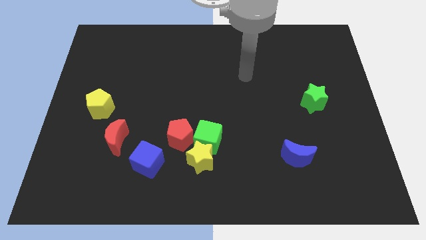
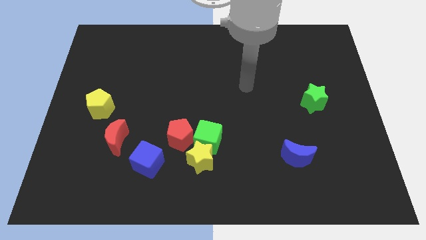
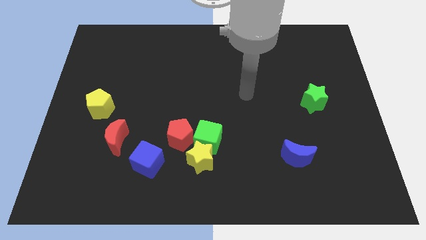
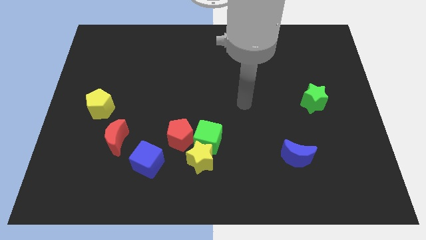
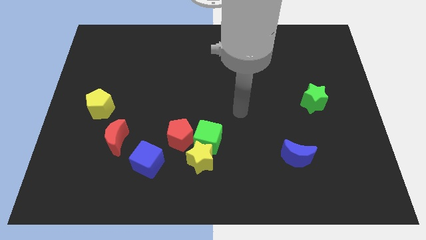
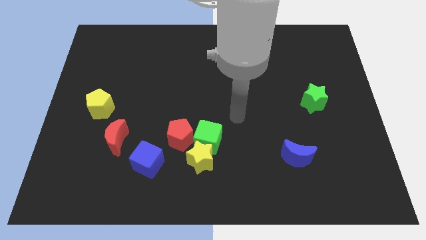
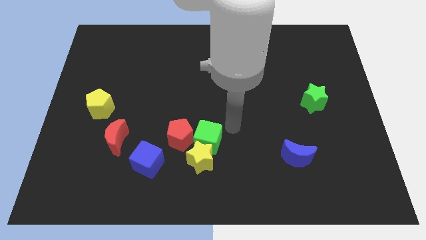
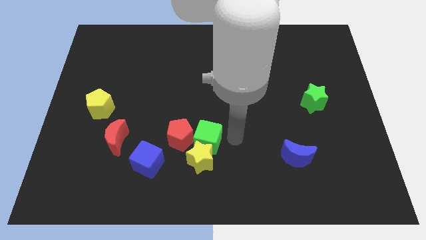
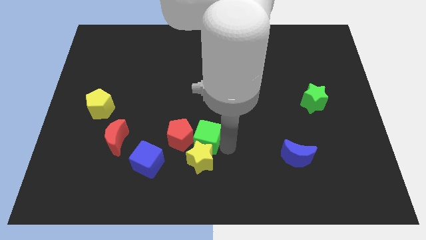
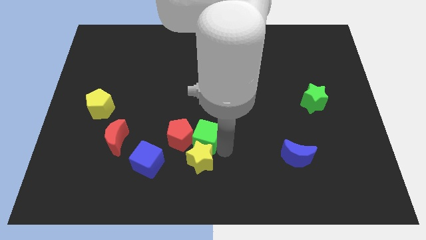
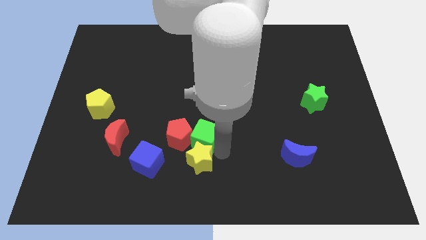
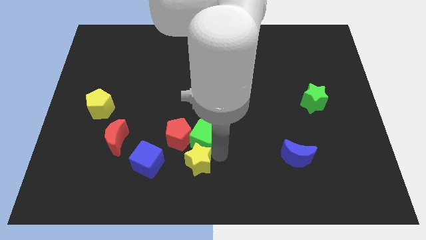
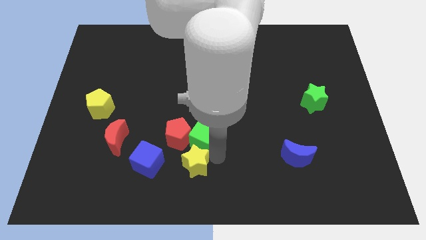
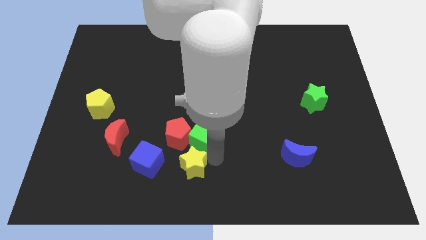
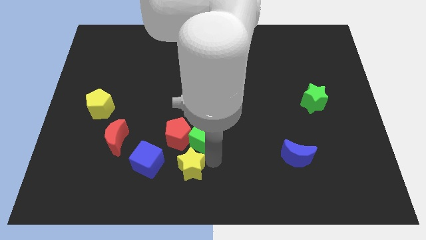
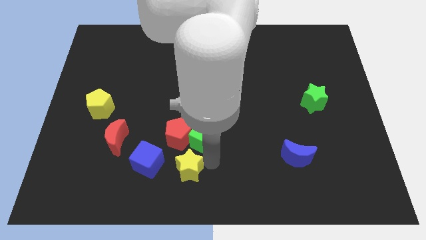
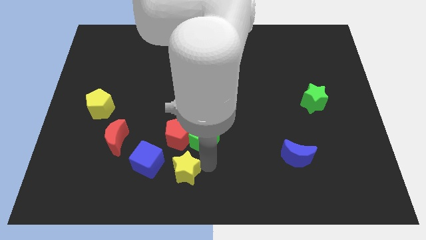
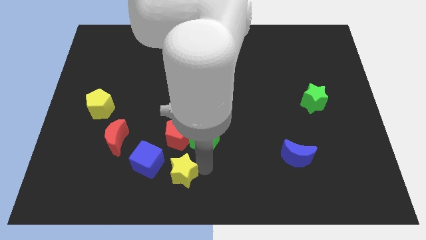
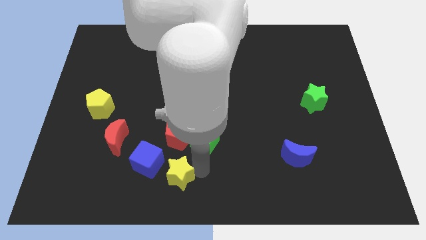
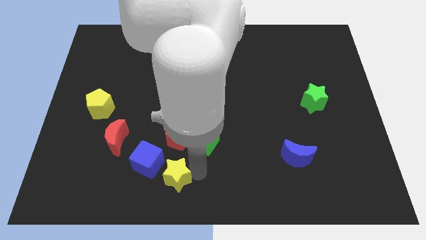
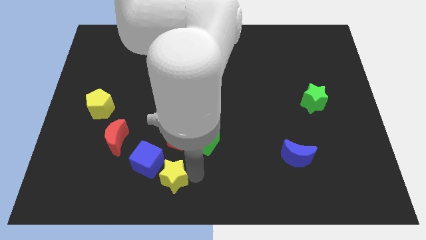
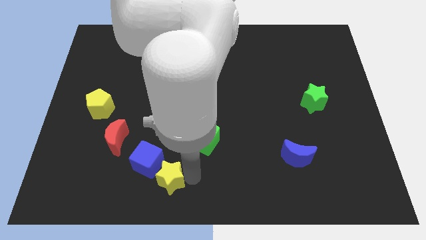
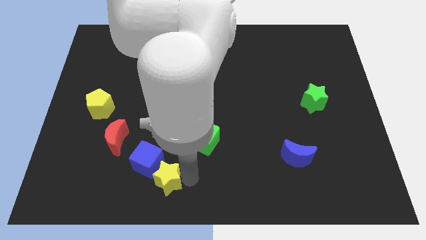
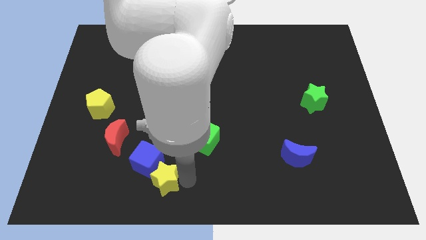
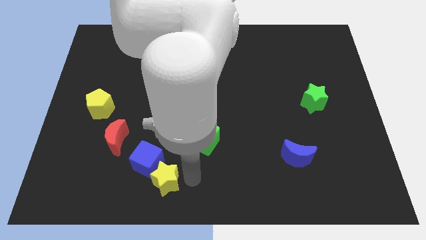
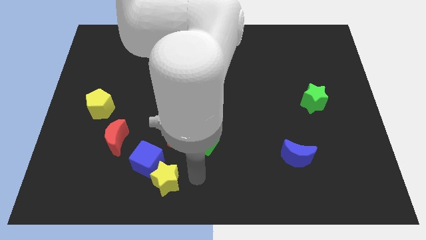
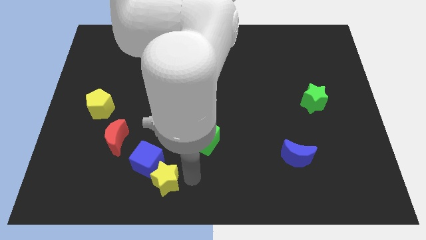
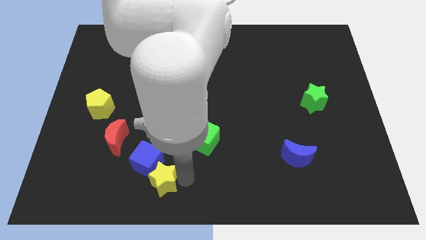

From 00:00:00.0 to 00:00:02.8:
push the yellow star a little bit left

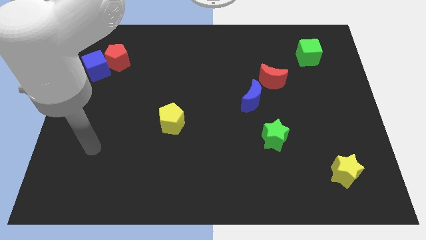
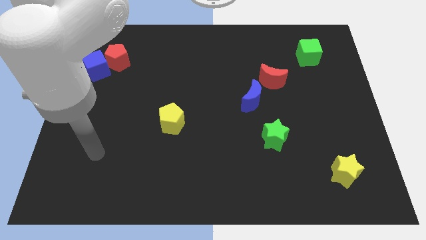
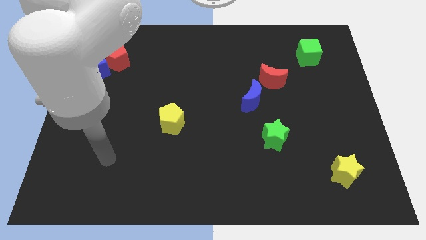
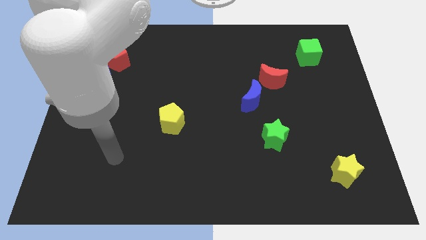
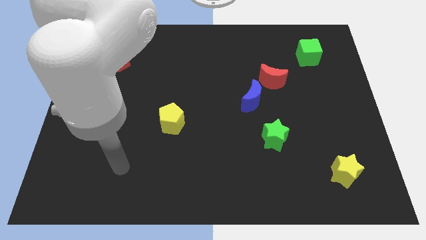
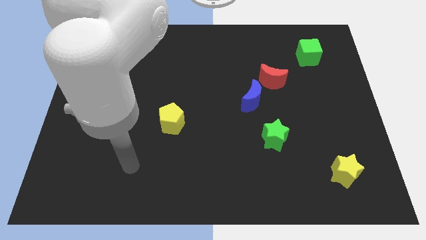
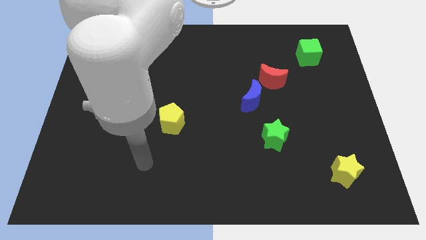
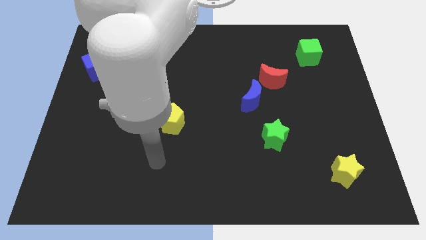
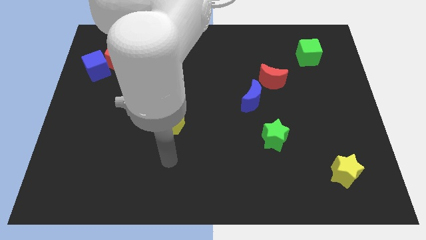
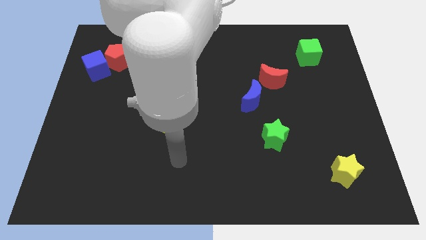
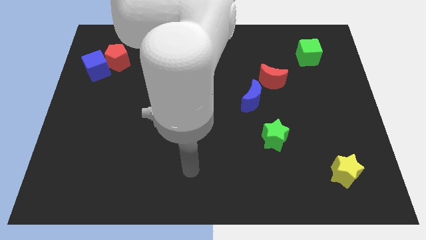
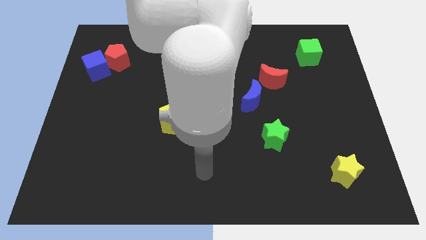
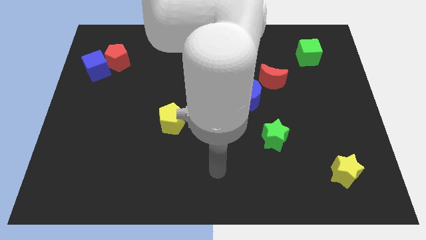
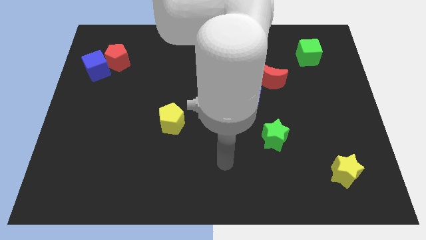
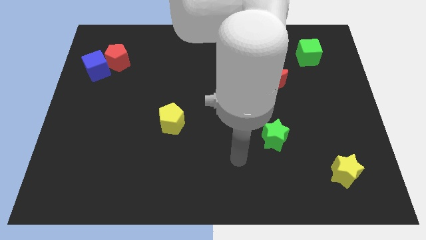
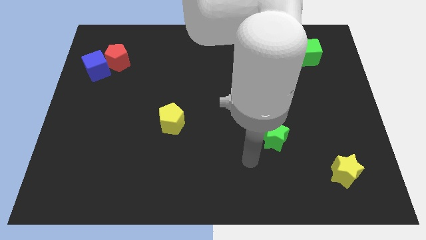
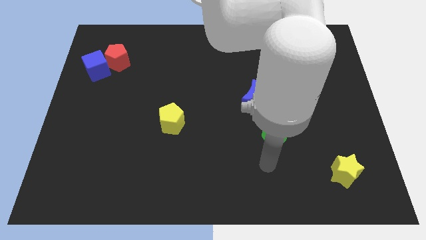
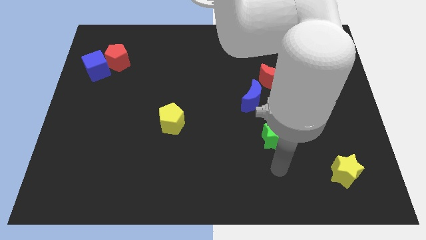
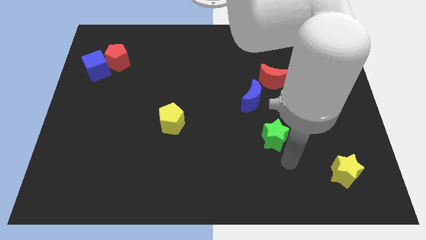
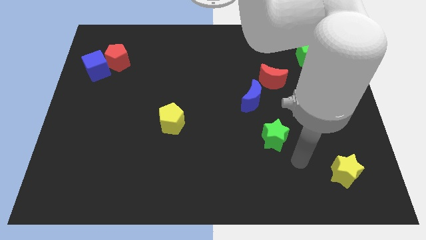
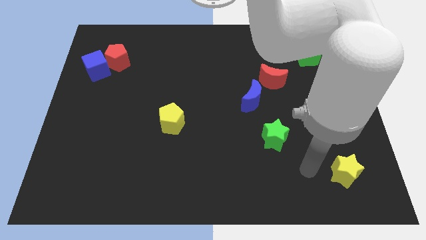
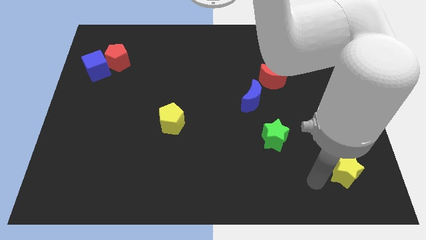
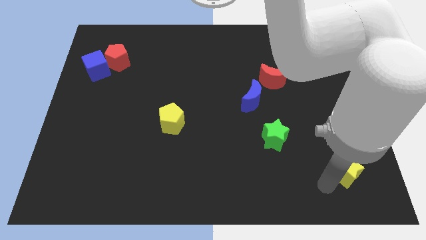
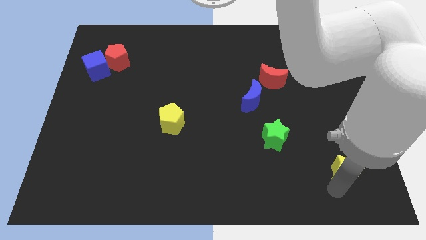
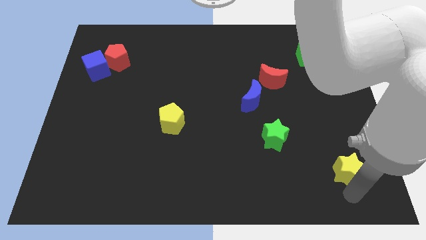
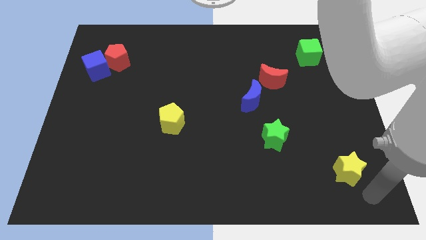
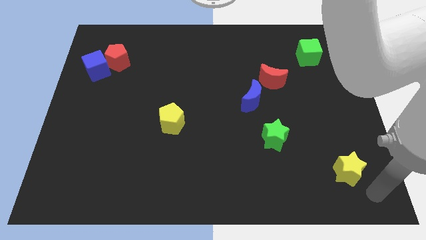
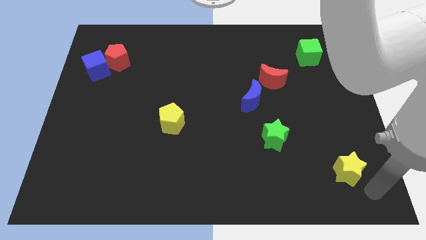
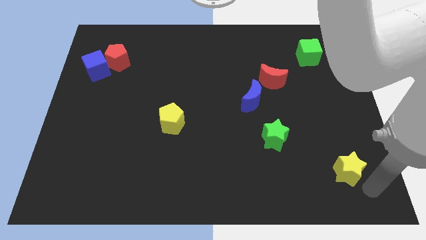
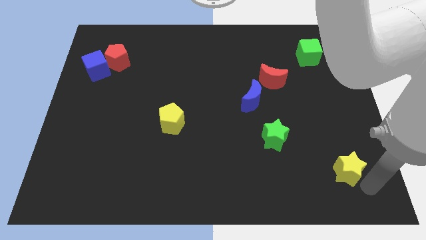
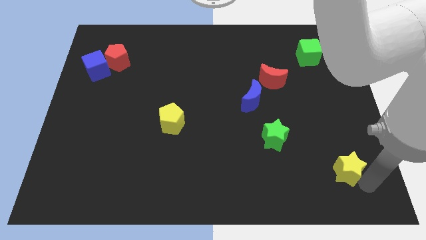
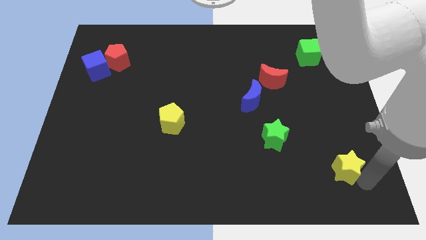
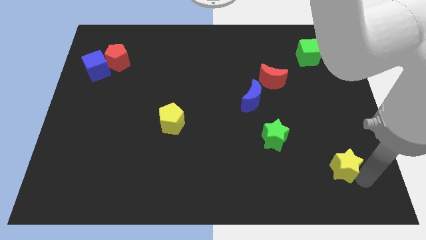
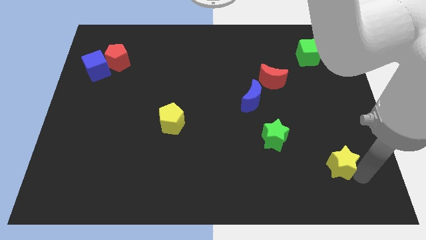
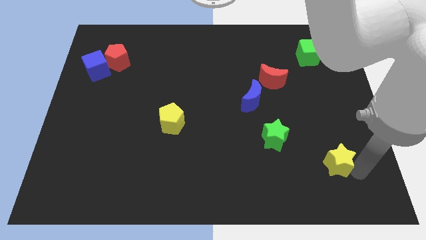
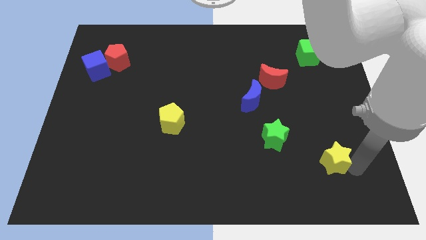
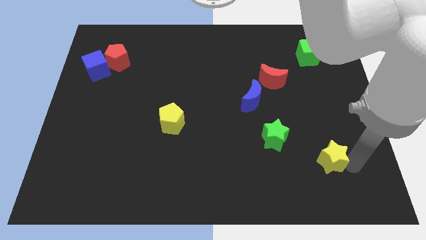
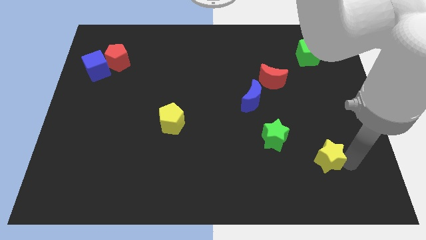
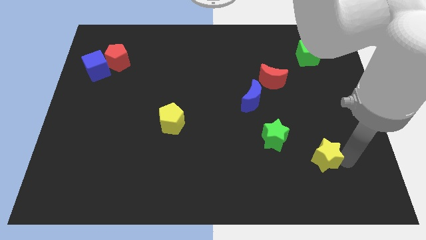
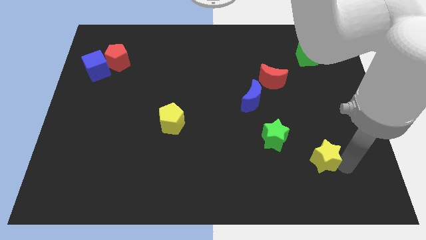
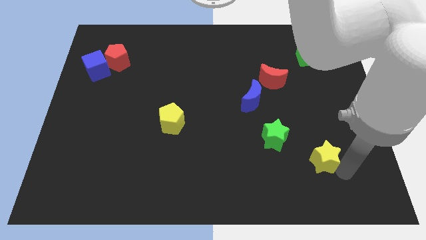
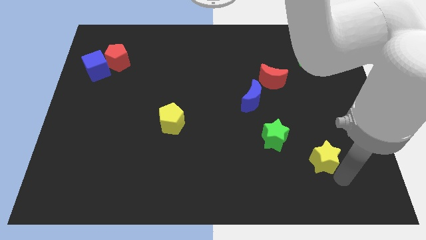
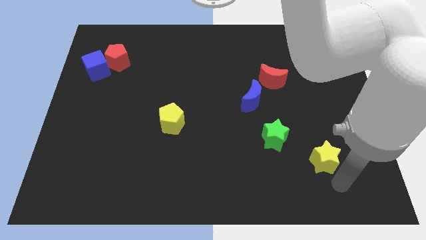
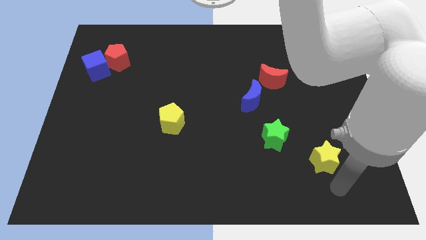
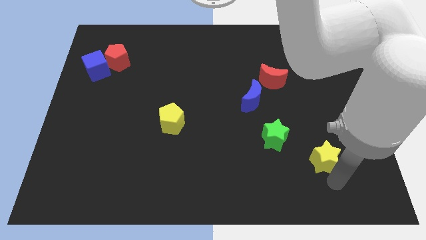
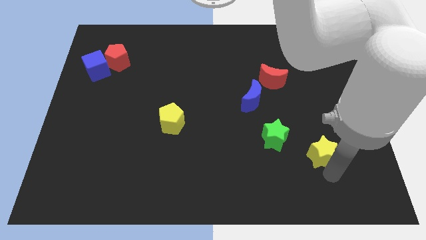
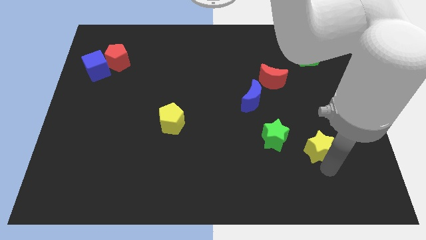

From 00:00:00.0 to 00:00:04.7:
push the yellow star somewhat up and to the left diagonally

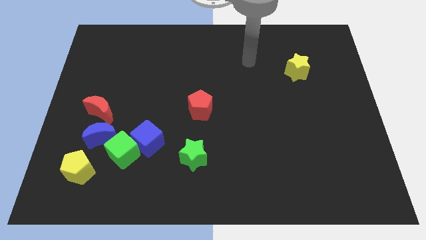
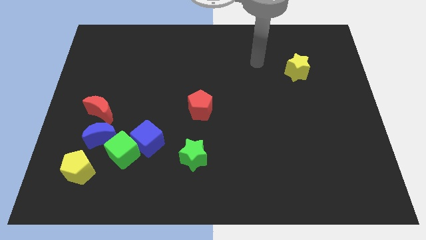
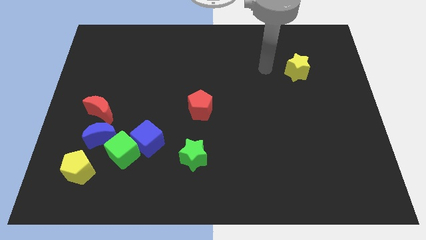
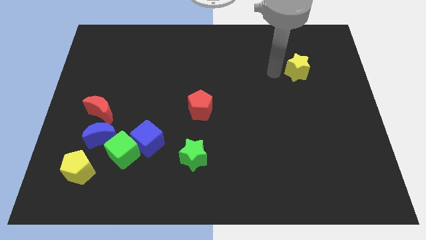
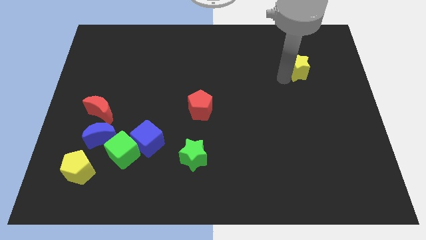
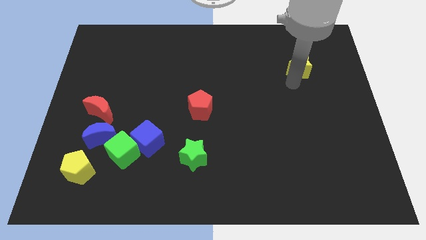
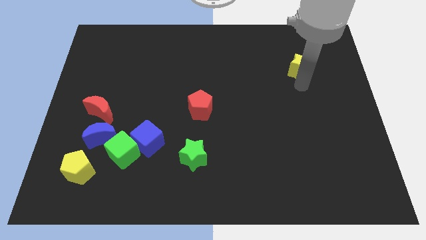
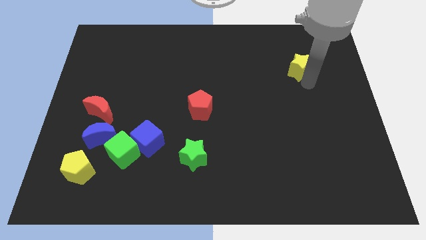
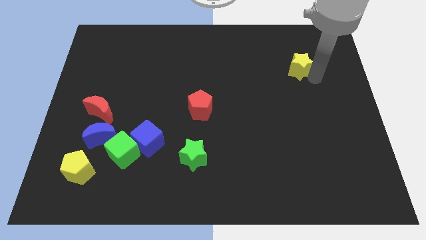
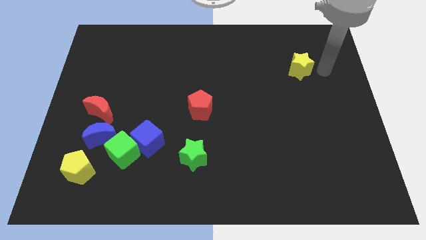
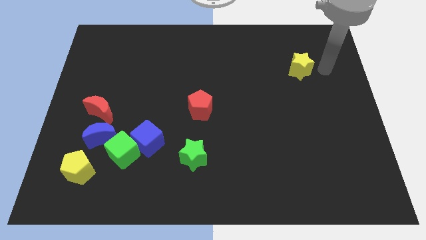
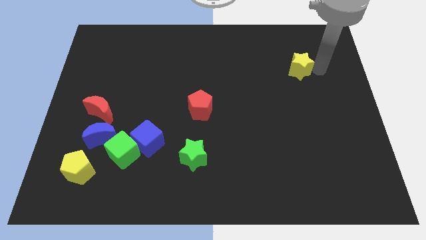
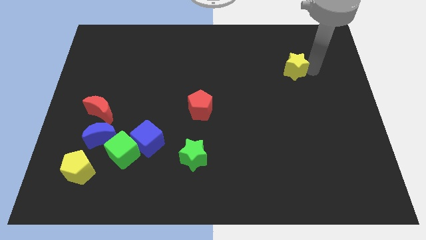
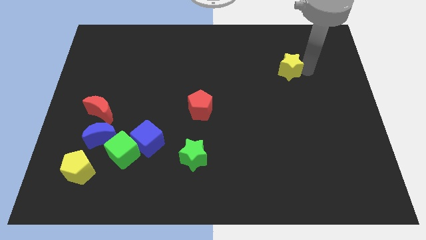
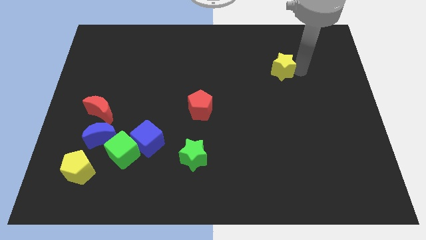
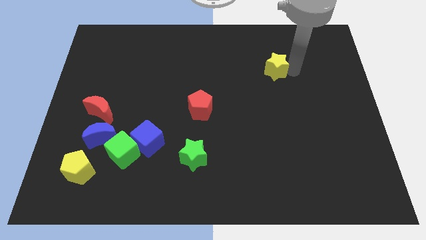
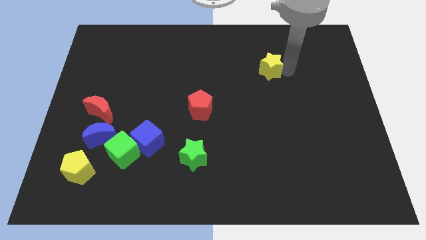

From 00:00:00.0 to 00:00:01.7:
slightly move the yellow star left
